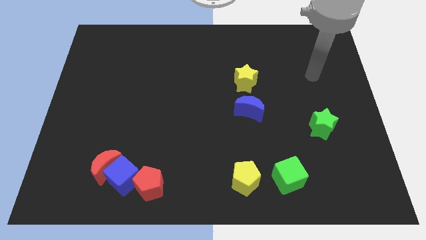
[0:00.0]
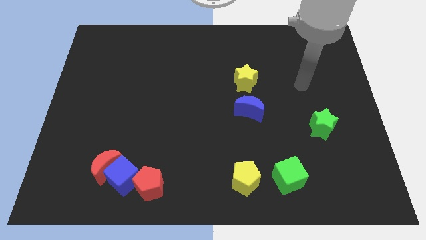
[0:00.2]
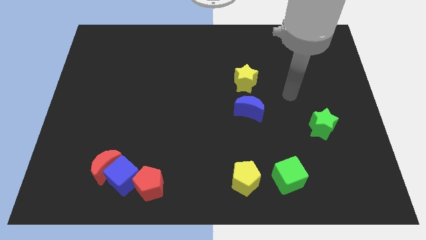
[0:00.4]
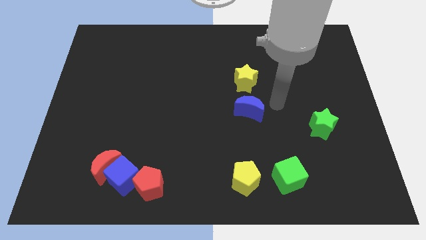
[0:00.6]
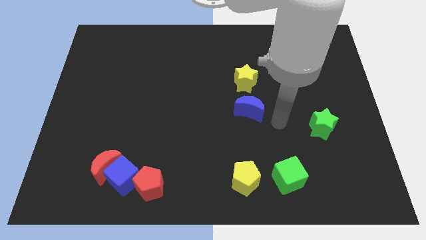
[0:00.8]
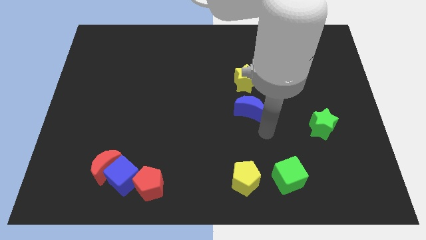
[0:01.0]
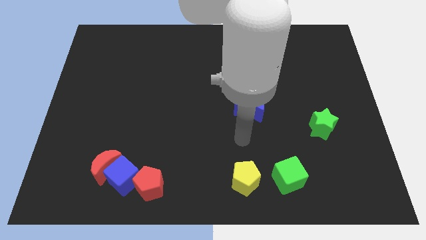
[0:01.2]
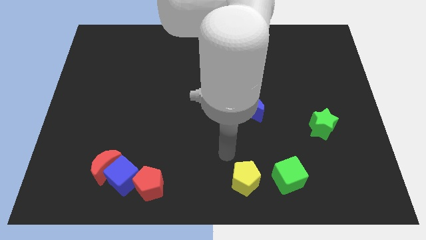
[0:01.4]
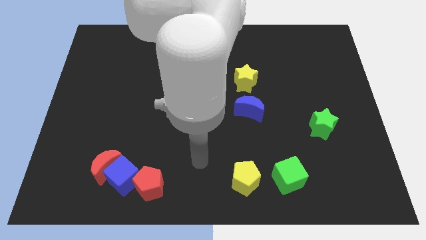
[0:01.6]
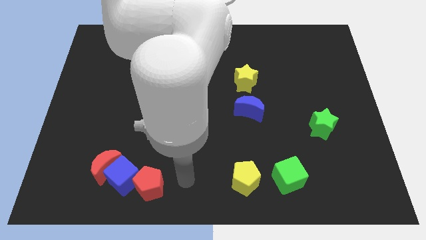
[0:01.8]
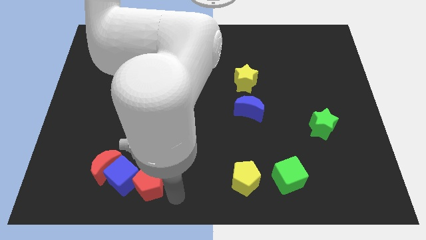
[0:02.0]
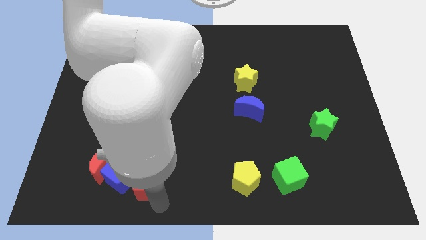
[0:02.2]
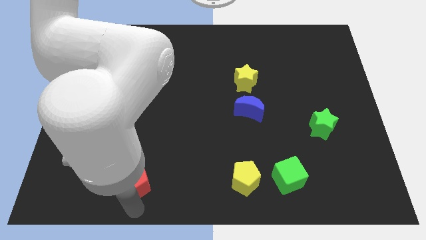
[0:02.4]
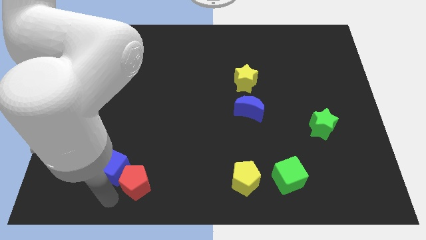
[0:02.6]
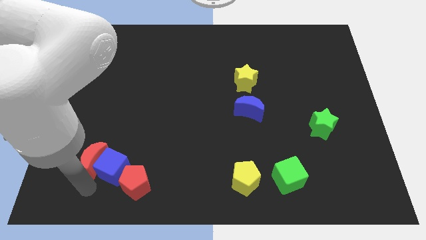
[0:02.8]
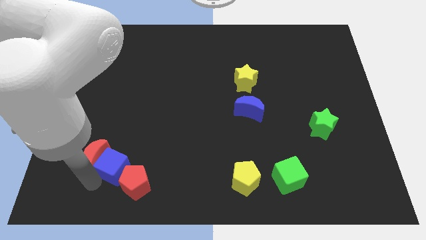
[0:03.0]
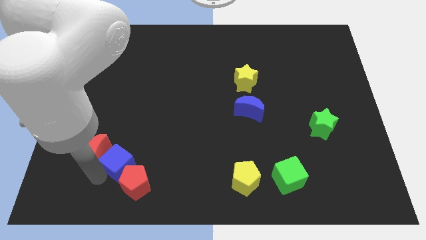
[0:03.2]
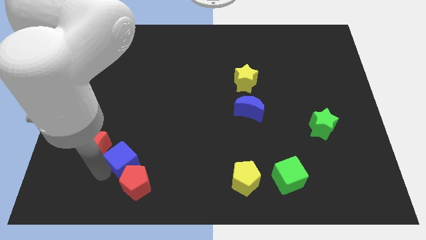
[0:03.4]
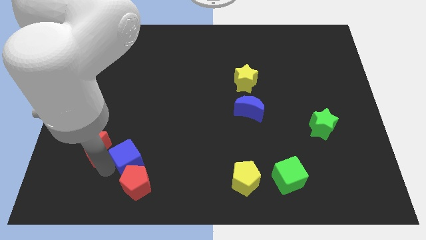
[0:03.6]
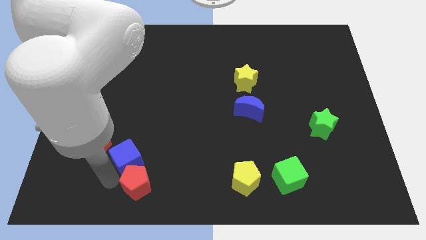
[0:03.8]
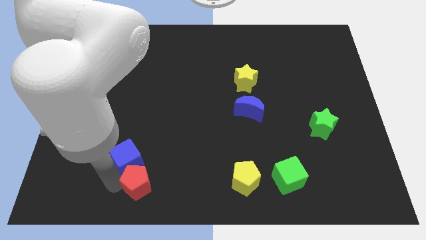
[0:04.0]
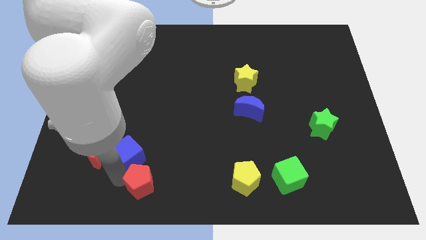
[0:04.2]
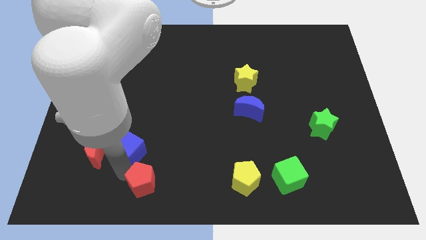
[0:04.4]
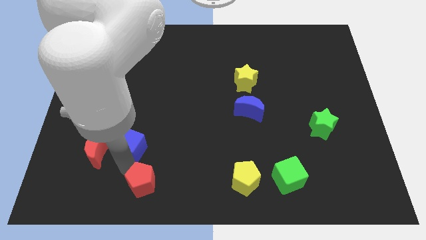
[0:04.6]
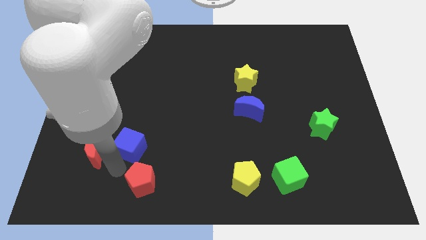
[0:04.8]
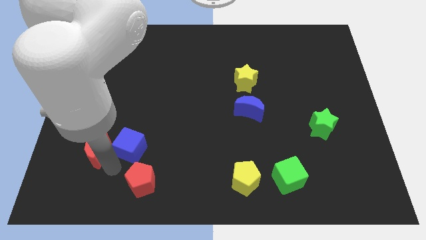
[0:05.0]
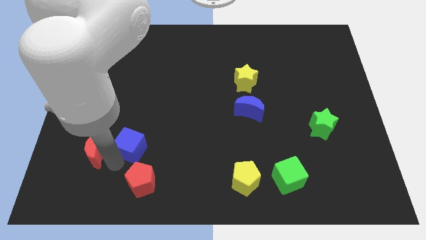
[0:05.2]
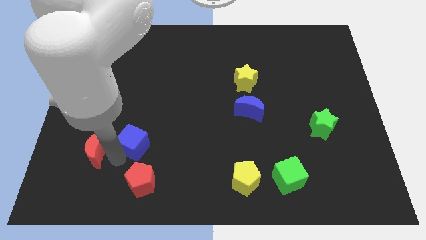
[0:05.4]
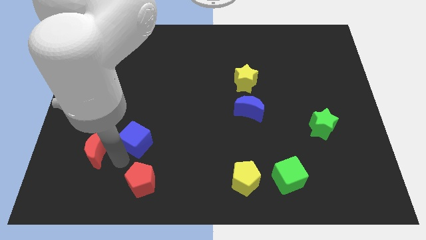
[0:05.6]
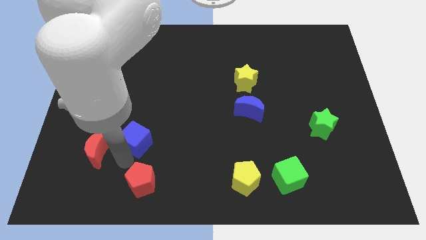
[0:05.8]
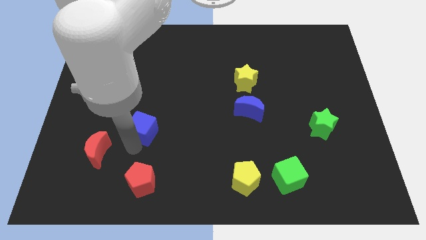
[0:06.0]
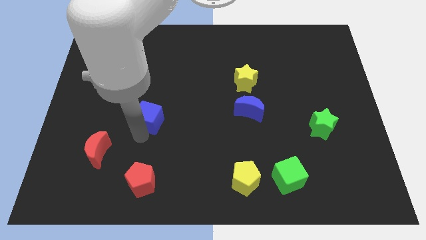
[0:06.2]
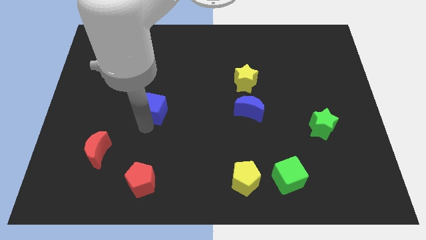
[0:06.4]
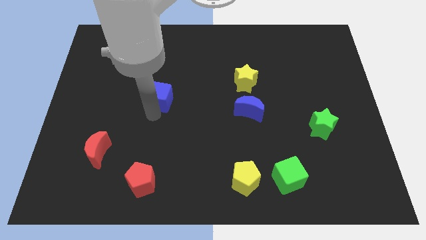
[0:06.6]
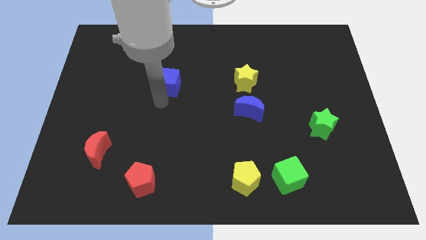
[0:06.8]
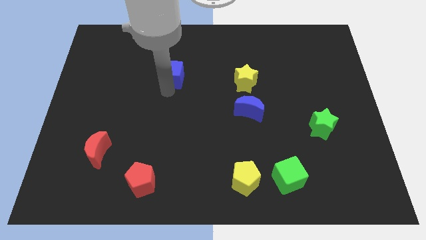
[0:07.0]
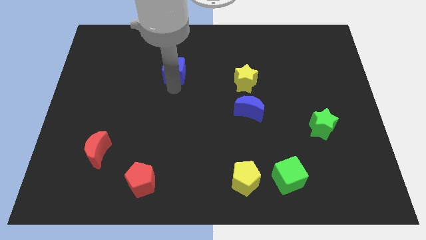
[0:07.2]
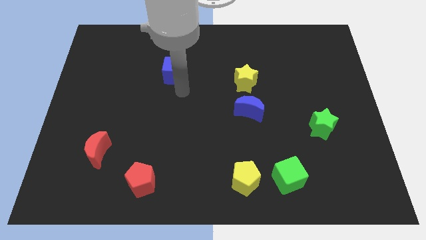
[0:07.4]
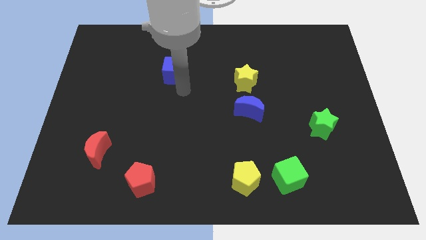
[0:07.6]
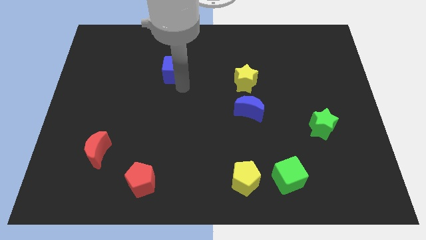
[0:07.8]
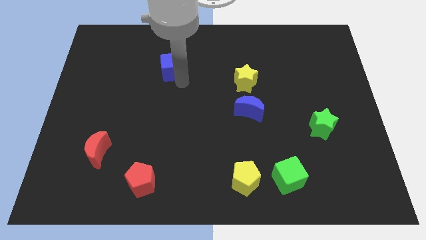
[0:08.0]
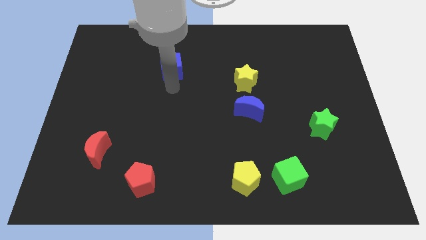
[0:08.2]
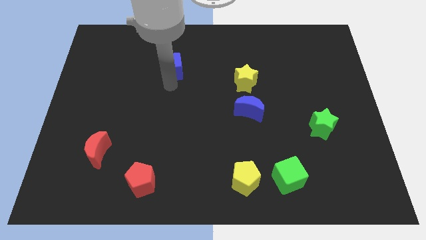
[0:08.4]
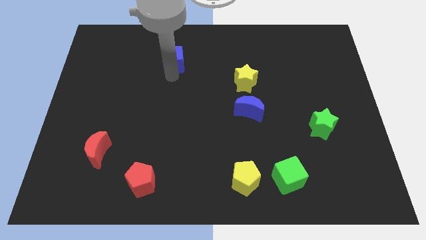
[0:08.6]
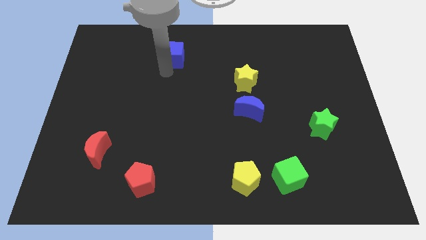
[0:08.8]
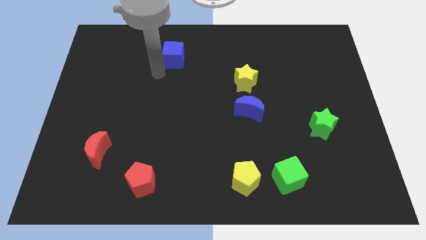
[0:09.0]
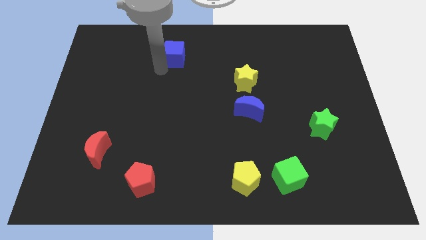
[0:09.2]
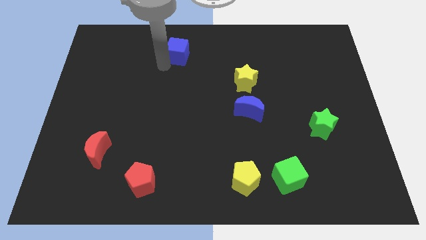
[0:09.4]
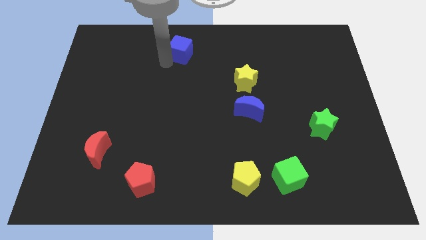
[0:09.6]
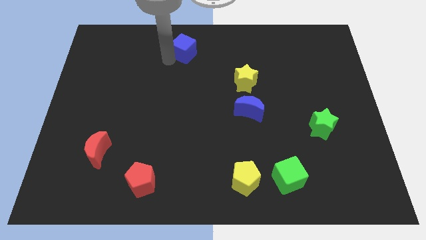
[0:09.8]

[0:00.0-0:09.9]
push the blue cube to the towards your base

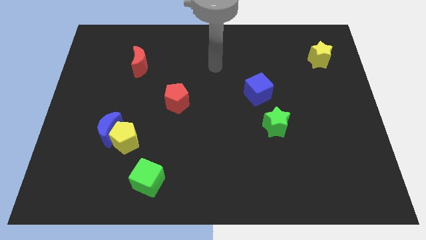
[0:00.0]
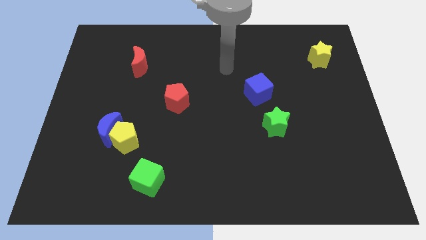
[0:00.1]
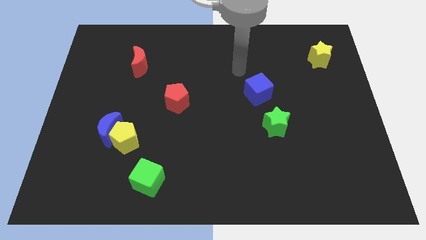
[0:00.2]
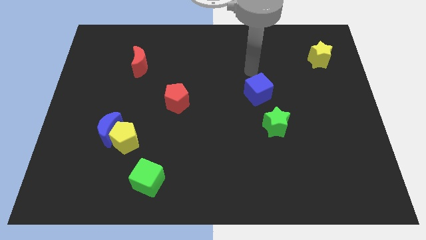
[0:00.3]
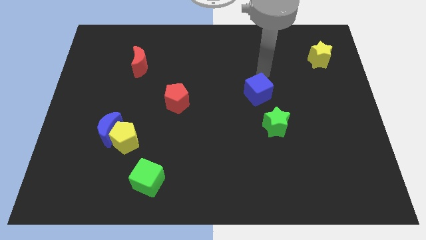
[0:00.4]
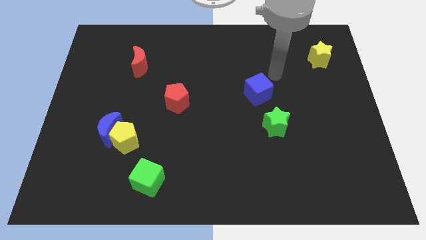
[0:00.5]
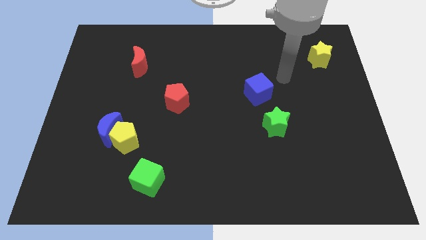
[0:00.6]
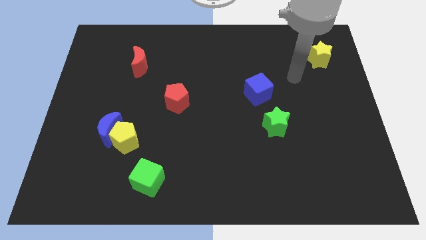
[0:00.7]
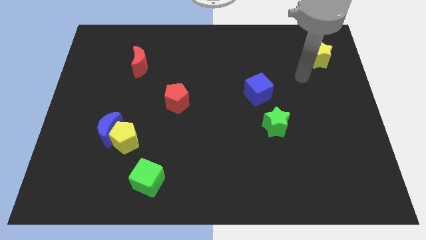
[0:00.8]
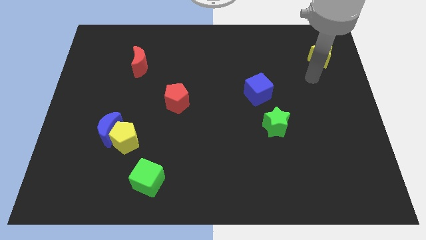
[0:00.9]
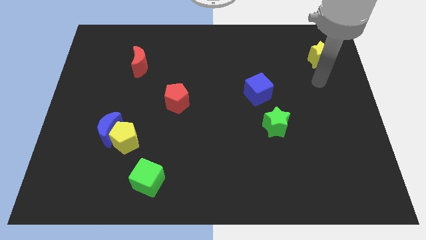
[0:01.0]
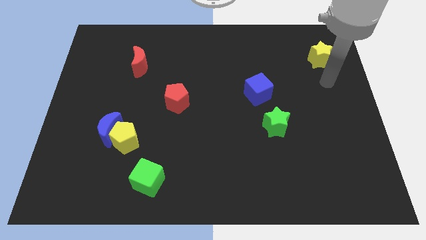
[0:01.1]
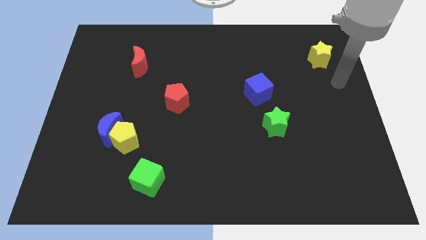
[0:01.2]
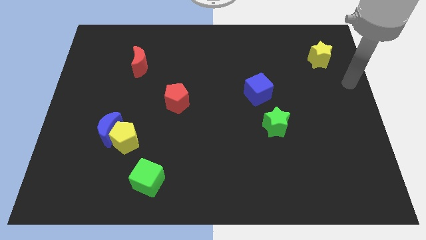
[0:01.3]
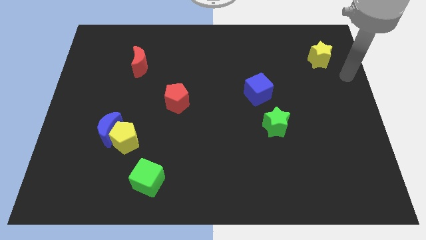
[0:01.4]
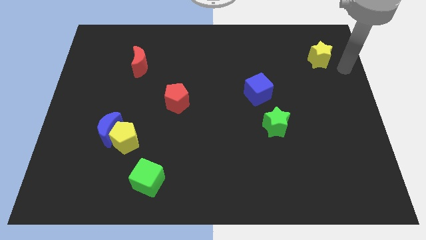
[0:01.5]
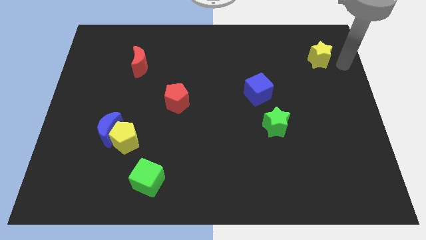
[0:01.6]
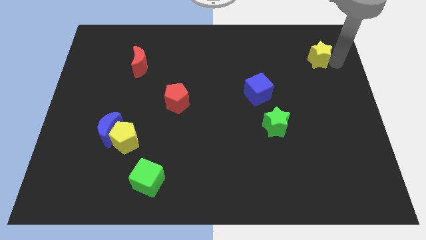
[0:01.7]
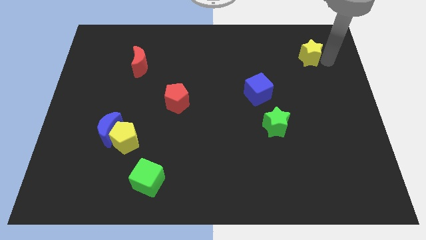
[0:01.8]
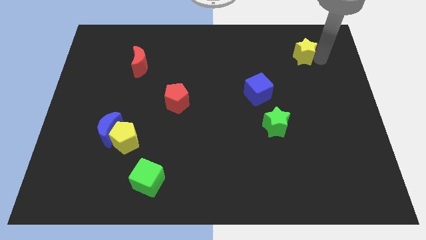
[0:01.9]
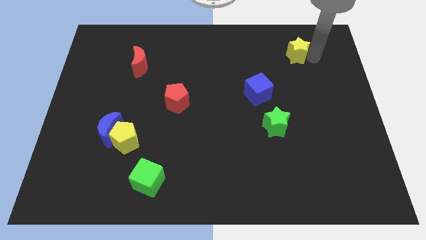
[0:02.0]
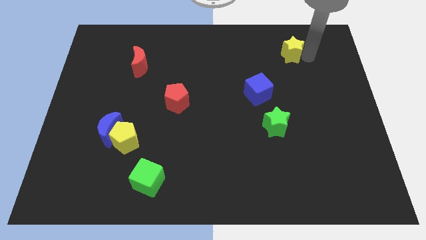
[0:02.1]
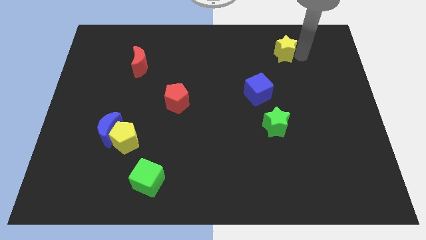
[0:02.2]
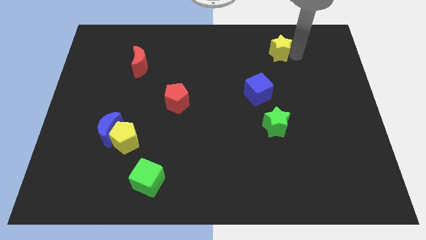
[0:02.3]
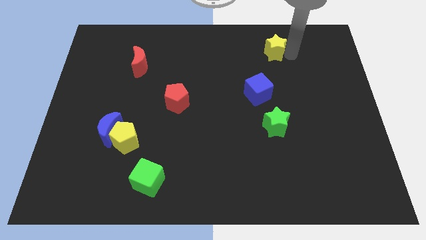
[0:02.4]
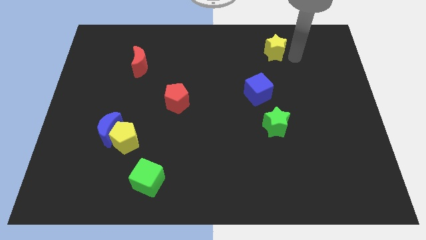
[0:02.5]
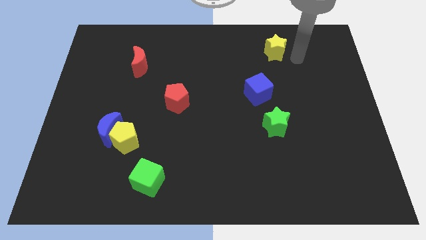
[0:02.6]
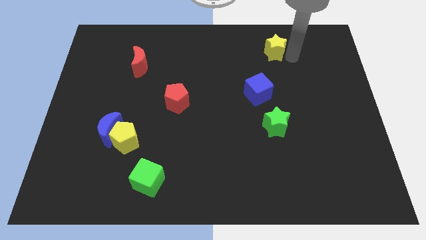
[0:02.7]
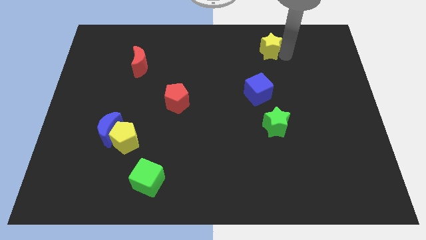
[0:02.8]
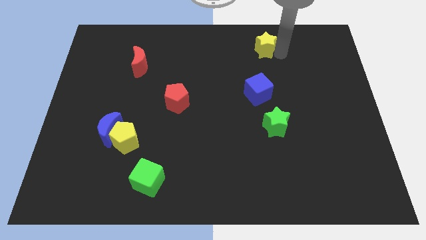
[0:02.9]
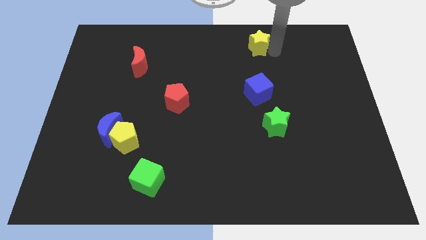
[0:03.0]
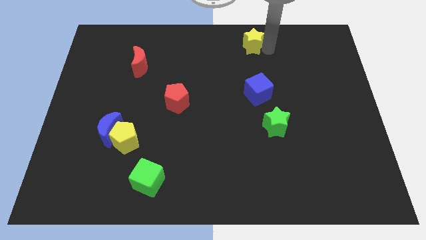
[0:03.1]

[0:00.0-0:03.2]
push the yellow star to the towards your base
